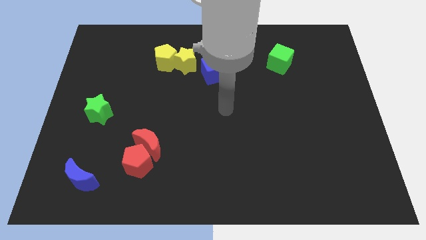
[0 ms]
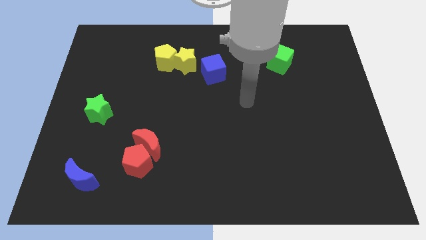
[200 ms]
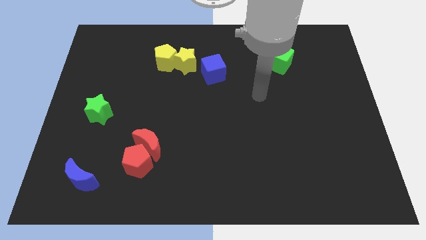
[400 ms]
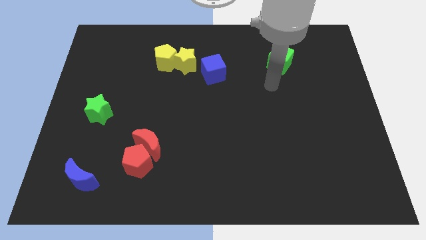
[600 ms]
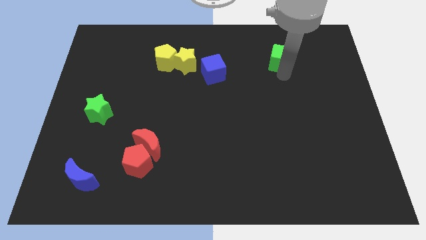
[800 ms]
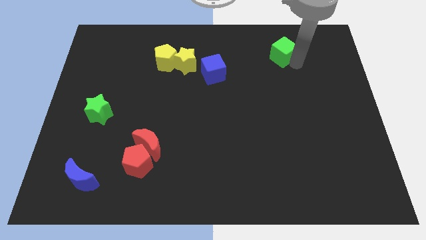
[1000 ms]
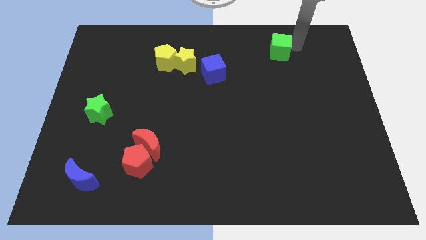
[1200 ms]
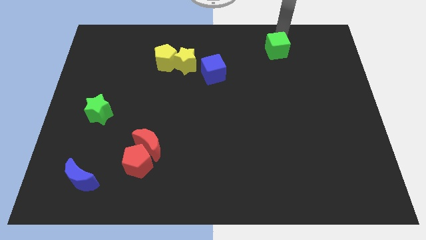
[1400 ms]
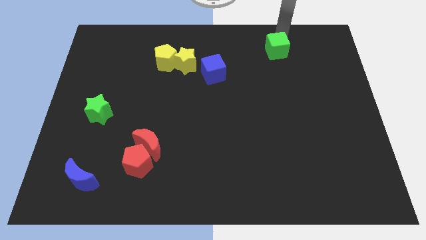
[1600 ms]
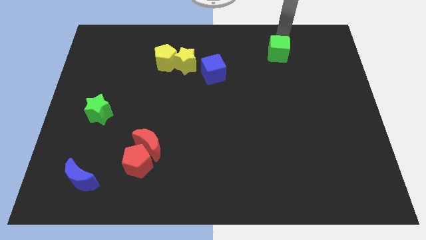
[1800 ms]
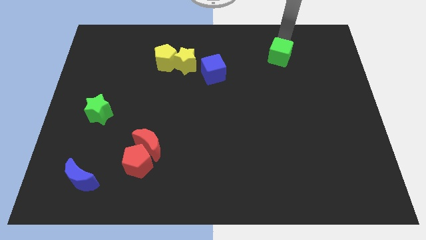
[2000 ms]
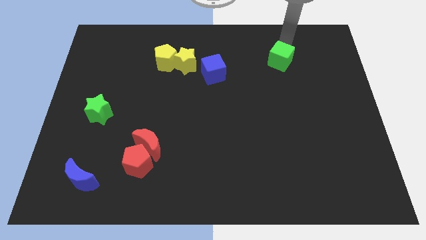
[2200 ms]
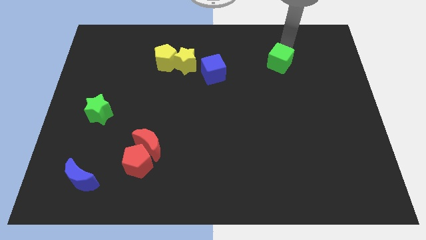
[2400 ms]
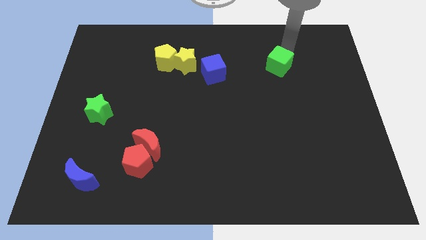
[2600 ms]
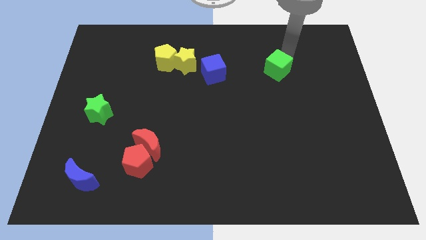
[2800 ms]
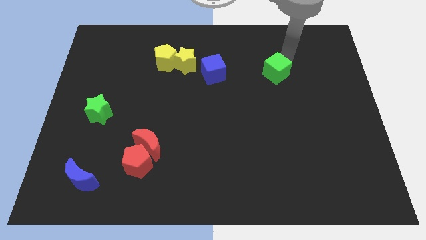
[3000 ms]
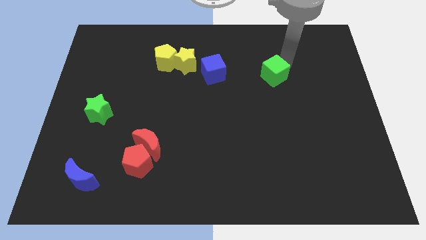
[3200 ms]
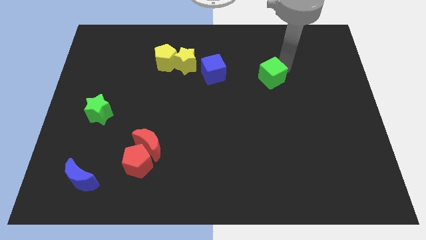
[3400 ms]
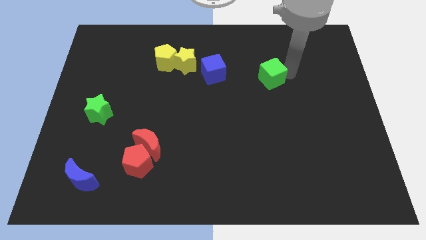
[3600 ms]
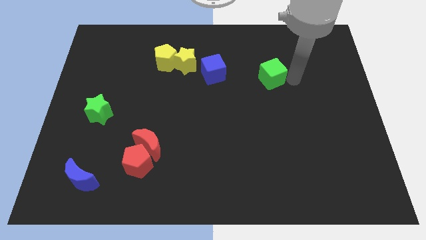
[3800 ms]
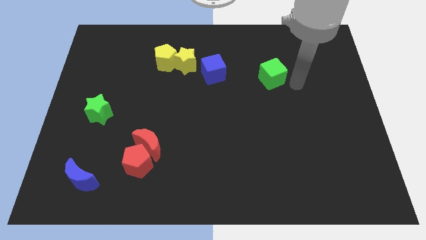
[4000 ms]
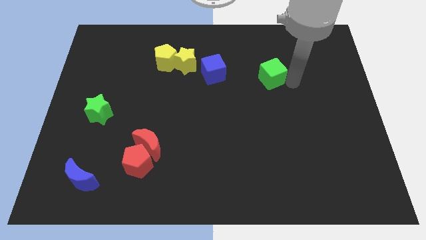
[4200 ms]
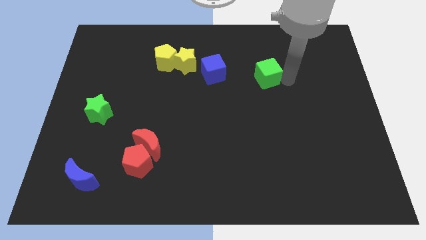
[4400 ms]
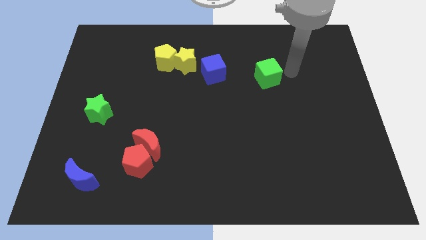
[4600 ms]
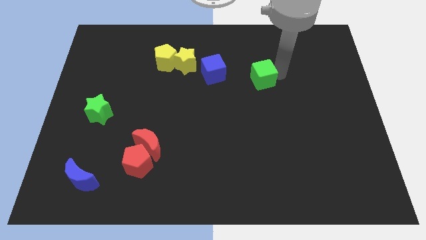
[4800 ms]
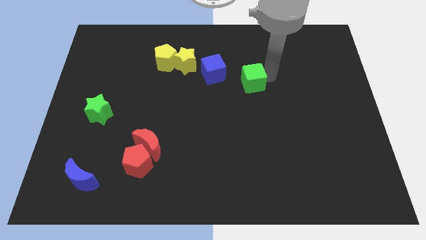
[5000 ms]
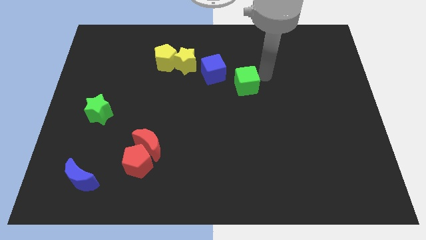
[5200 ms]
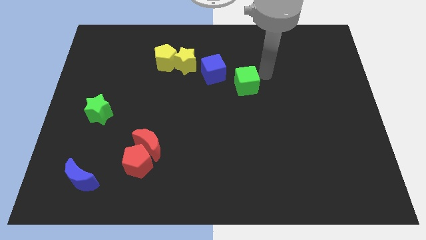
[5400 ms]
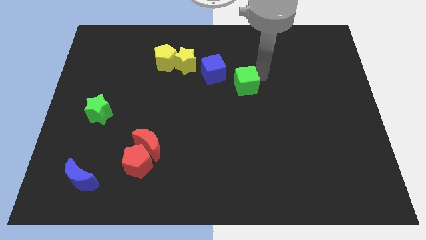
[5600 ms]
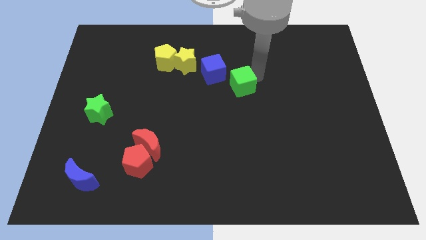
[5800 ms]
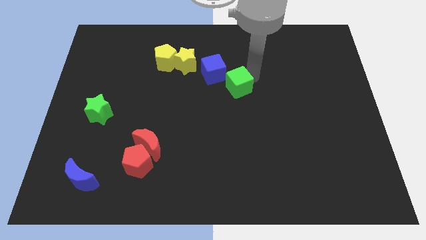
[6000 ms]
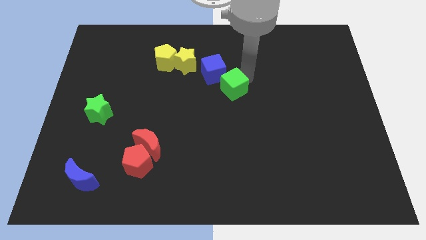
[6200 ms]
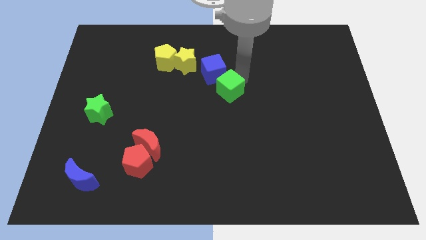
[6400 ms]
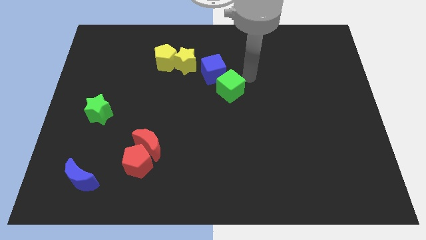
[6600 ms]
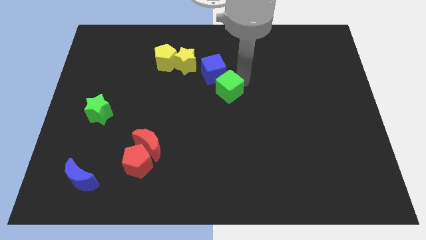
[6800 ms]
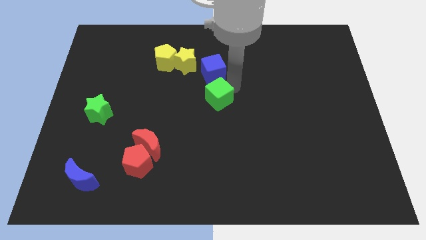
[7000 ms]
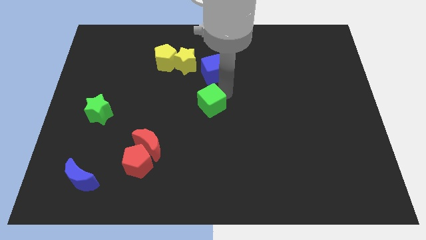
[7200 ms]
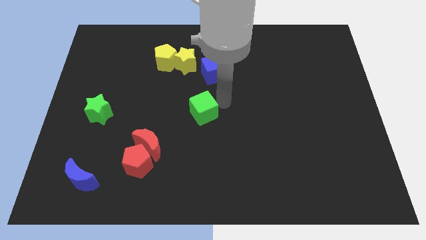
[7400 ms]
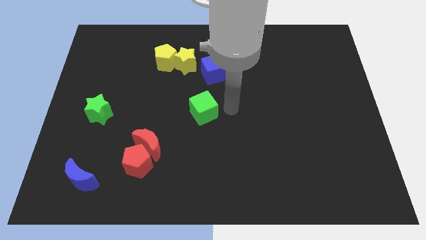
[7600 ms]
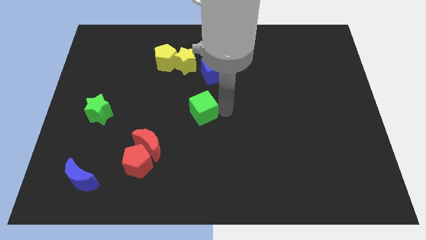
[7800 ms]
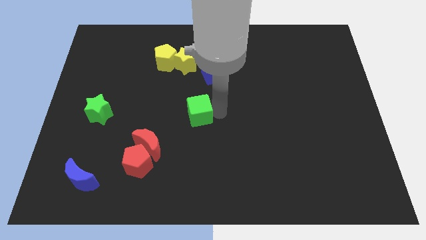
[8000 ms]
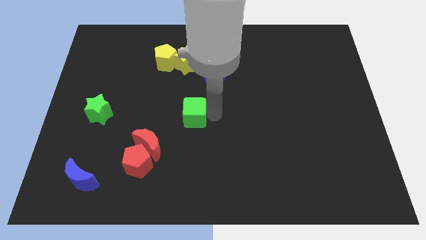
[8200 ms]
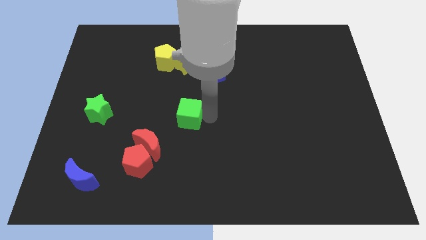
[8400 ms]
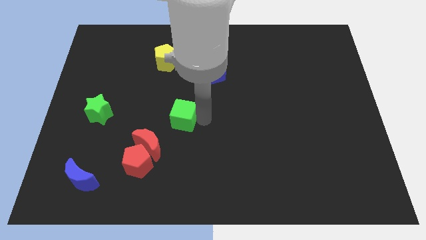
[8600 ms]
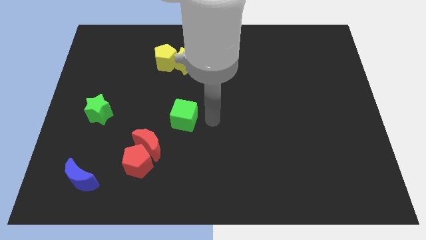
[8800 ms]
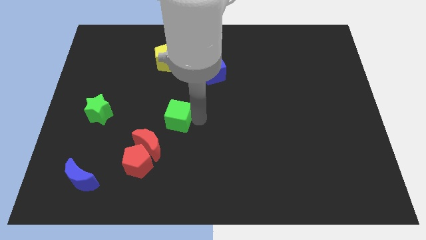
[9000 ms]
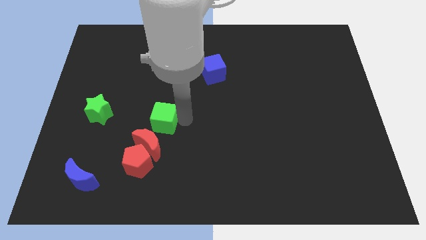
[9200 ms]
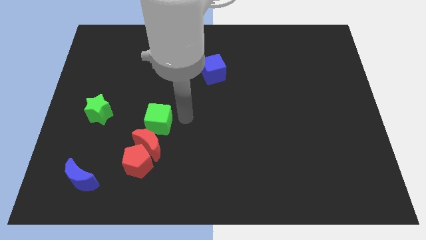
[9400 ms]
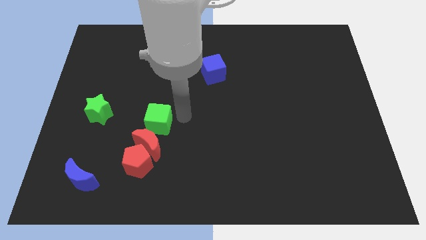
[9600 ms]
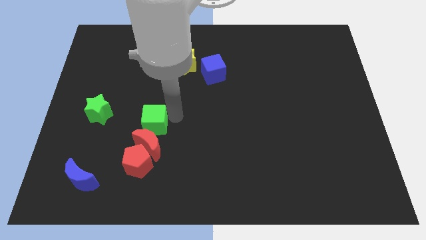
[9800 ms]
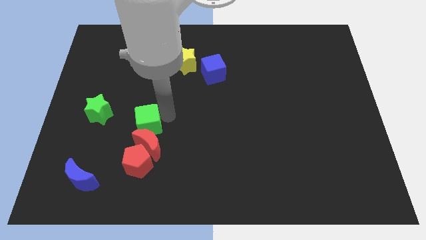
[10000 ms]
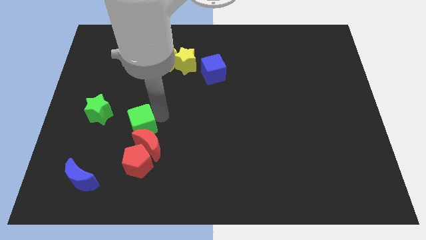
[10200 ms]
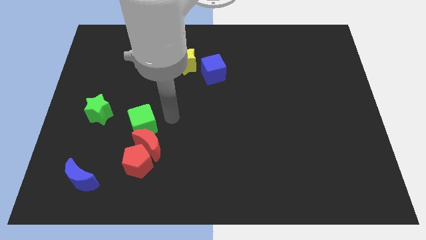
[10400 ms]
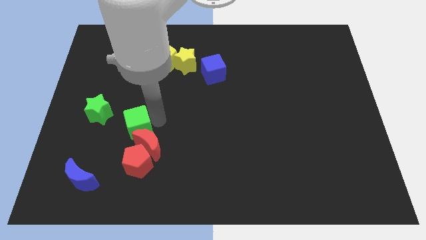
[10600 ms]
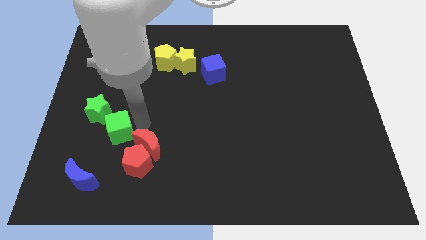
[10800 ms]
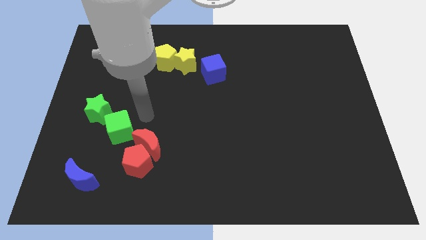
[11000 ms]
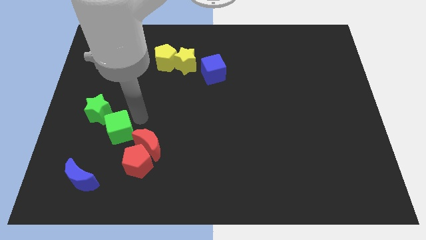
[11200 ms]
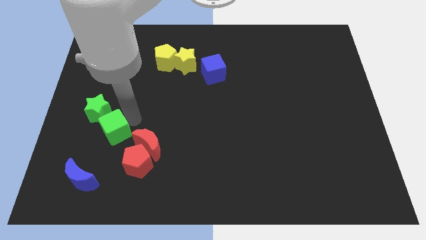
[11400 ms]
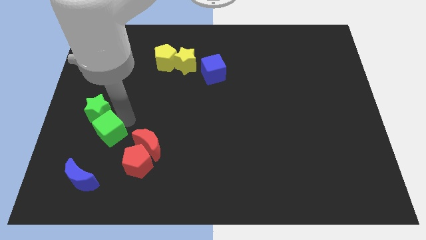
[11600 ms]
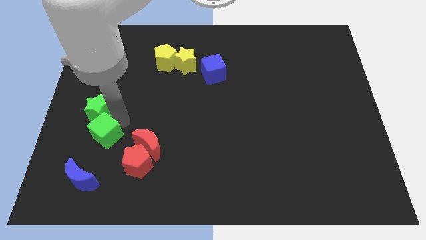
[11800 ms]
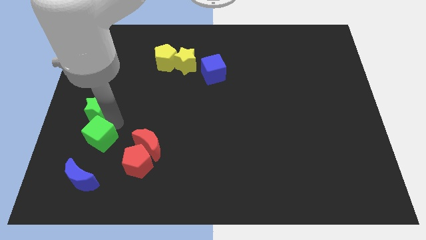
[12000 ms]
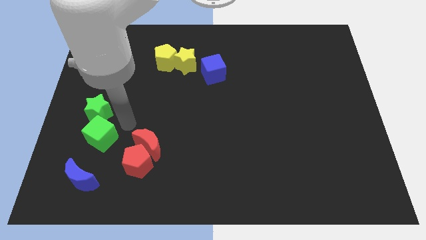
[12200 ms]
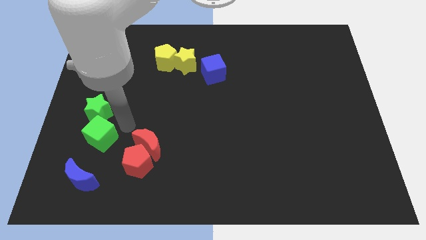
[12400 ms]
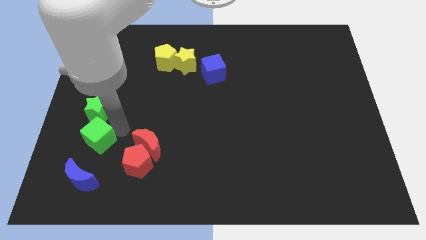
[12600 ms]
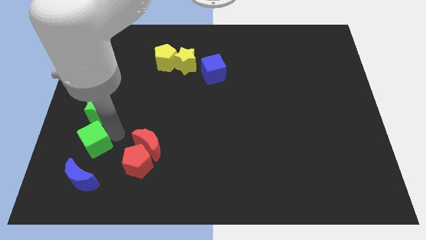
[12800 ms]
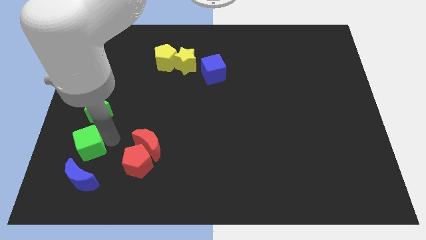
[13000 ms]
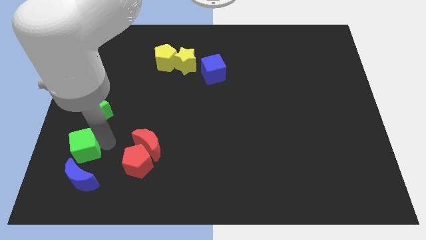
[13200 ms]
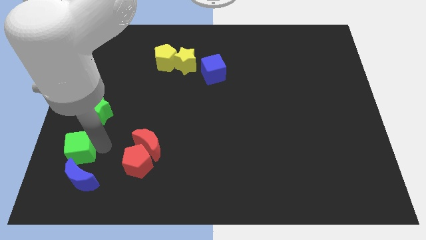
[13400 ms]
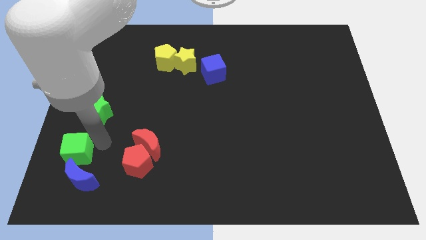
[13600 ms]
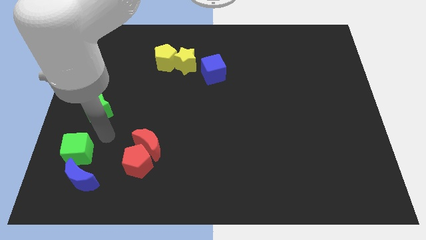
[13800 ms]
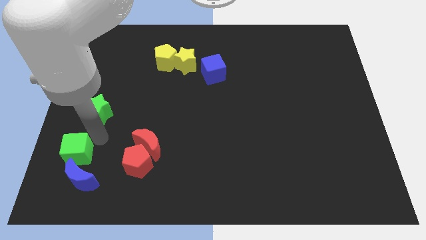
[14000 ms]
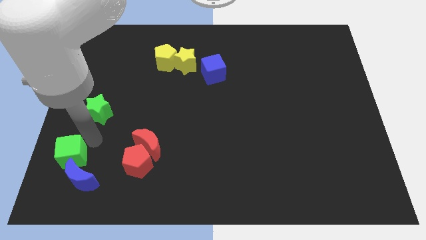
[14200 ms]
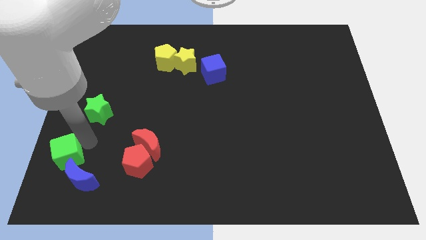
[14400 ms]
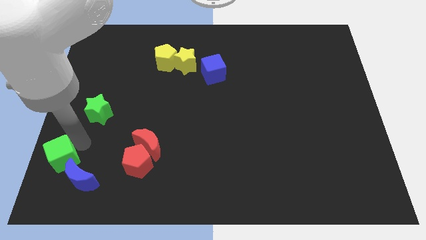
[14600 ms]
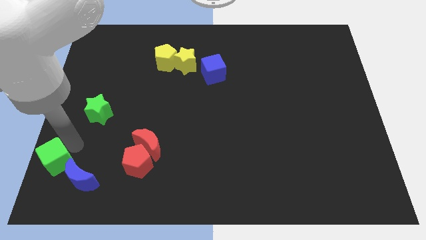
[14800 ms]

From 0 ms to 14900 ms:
move the green cube to the bottom left corner
